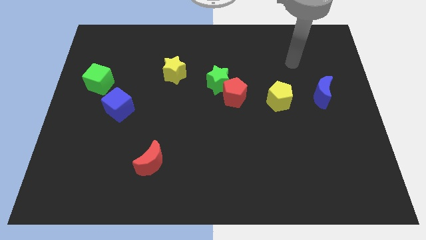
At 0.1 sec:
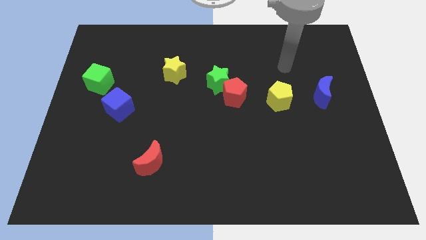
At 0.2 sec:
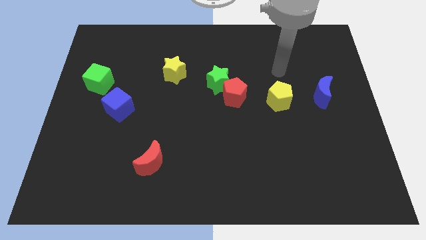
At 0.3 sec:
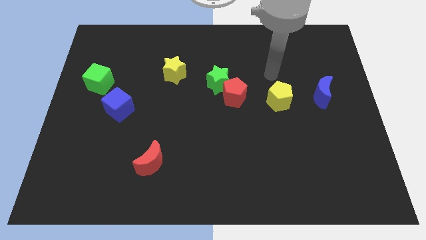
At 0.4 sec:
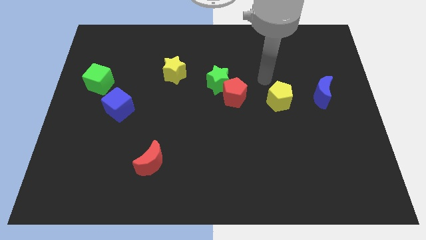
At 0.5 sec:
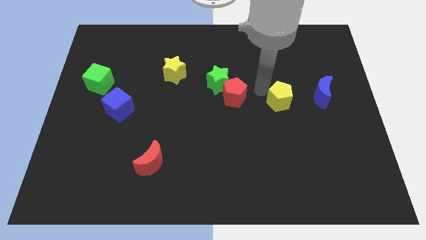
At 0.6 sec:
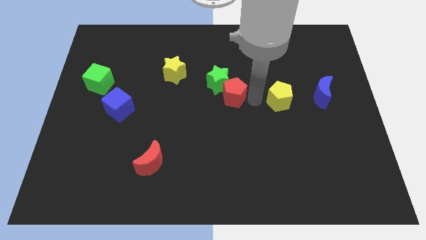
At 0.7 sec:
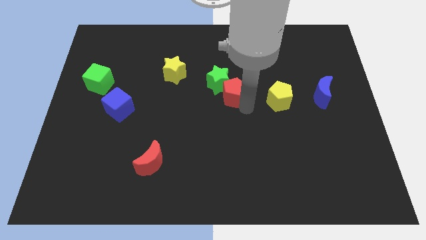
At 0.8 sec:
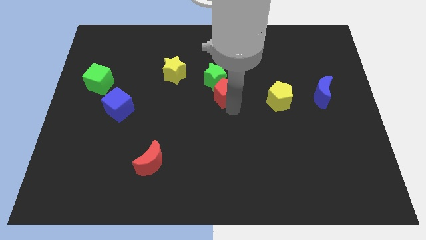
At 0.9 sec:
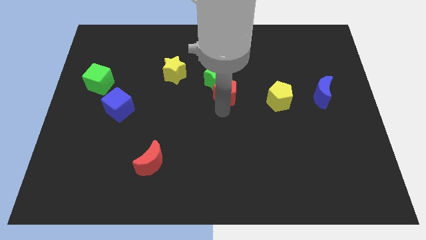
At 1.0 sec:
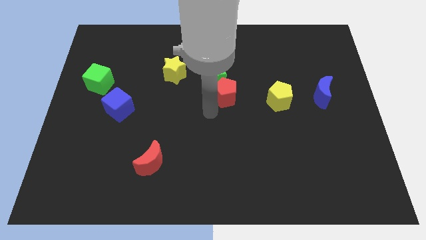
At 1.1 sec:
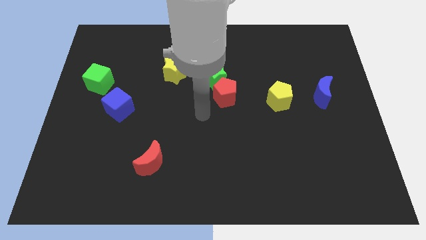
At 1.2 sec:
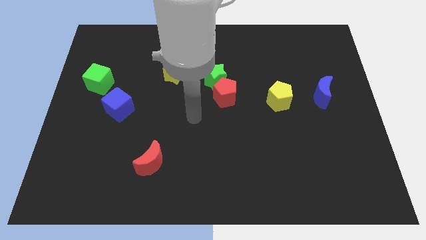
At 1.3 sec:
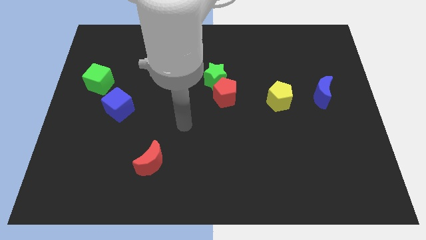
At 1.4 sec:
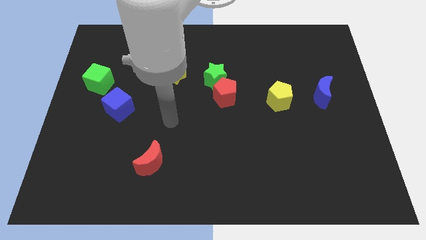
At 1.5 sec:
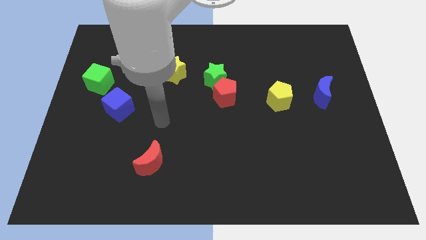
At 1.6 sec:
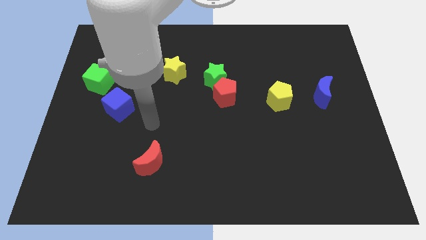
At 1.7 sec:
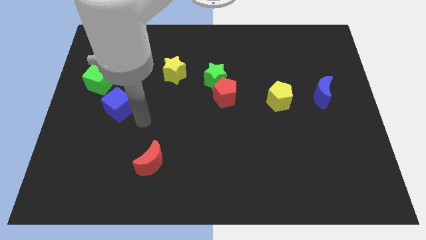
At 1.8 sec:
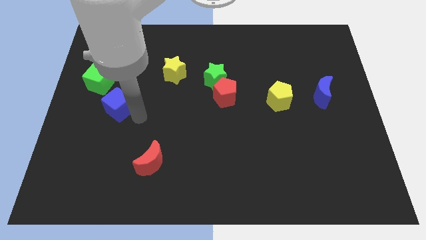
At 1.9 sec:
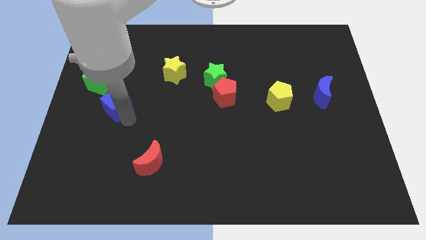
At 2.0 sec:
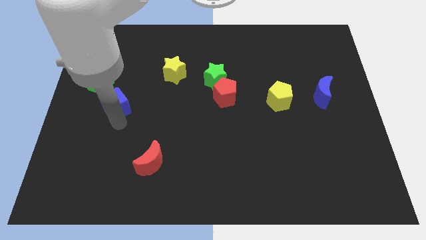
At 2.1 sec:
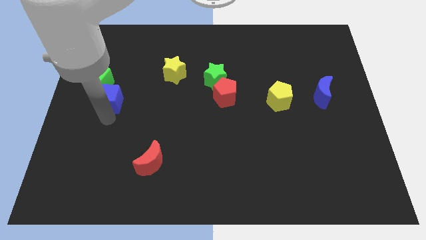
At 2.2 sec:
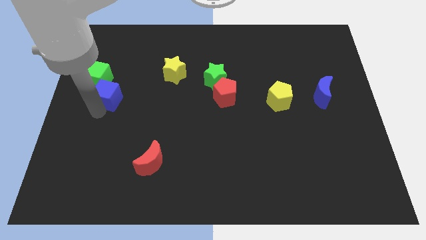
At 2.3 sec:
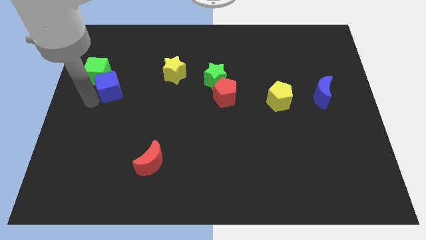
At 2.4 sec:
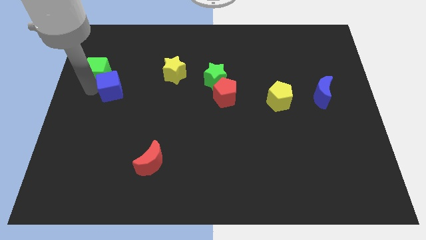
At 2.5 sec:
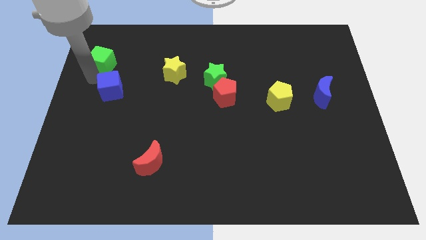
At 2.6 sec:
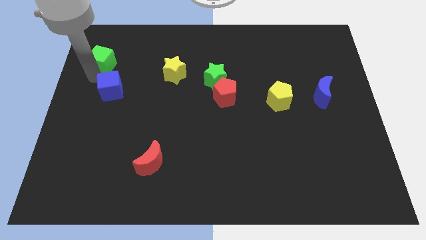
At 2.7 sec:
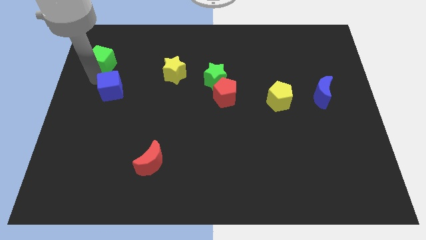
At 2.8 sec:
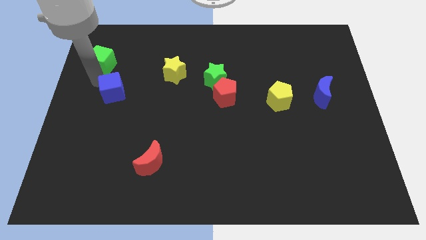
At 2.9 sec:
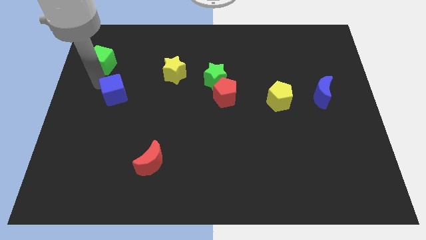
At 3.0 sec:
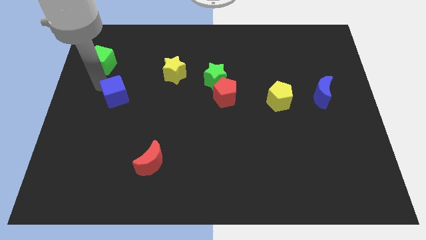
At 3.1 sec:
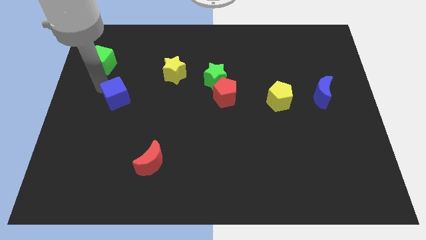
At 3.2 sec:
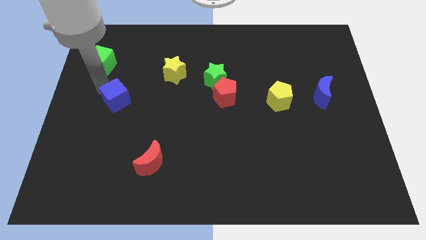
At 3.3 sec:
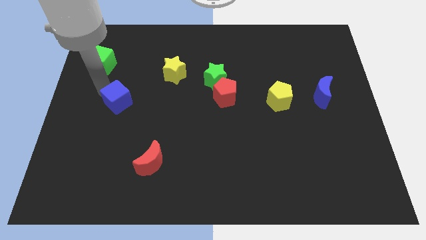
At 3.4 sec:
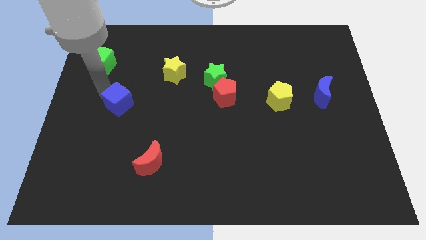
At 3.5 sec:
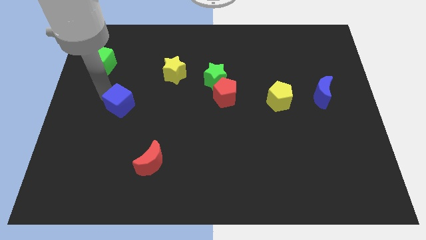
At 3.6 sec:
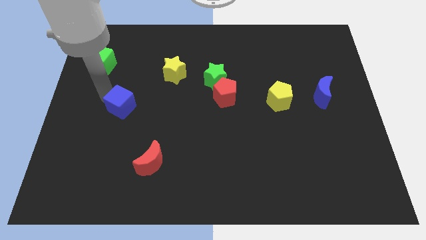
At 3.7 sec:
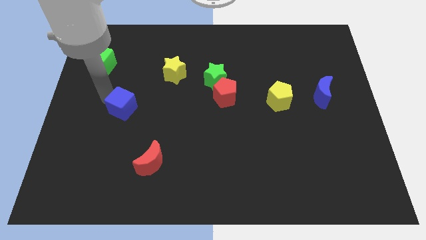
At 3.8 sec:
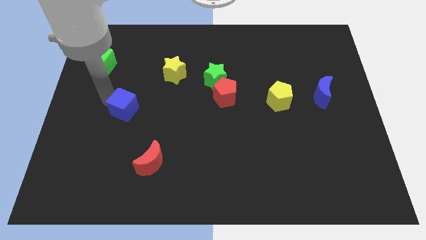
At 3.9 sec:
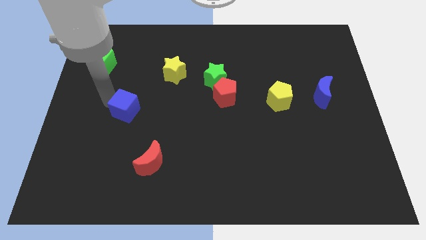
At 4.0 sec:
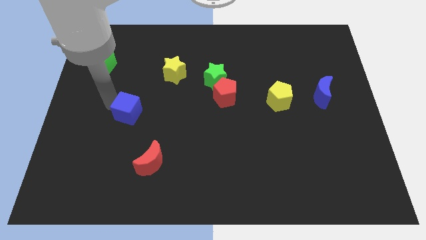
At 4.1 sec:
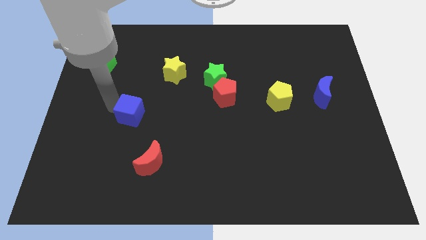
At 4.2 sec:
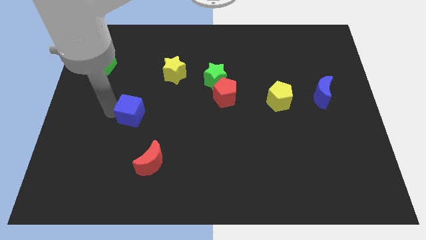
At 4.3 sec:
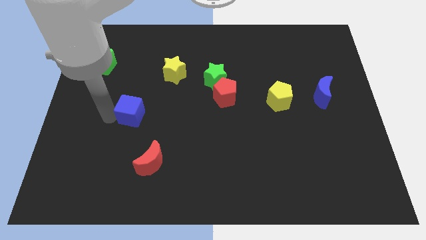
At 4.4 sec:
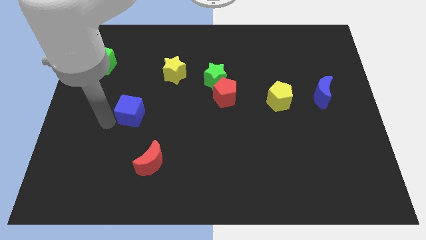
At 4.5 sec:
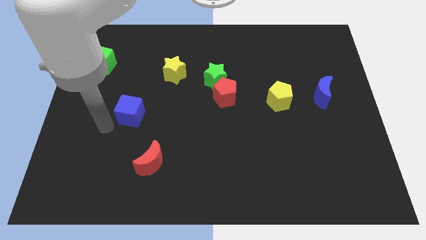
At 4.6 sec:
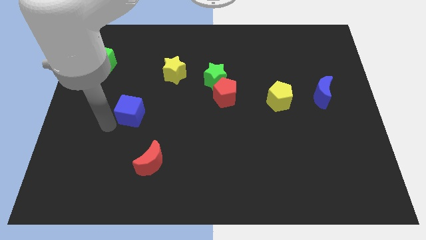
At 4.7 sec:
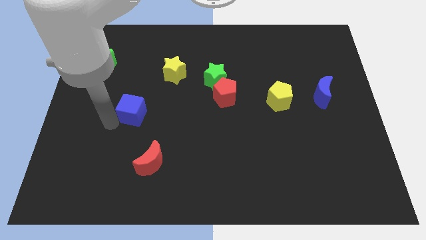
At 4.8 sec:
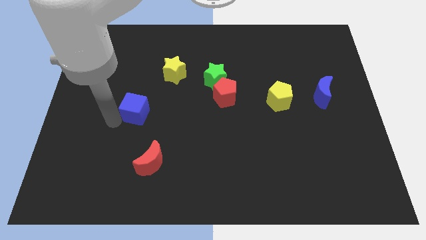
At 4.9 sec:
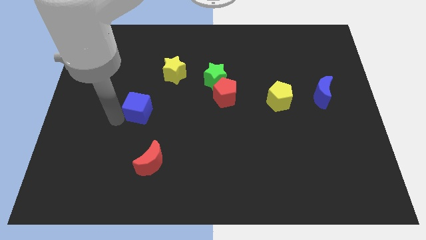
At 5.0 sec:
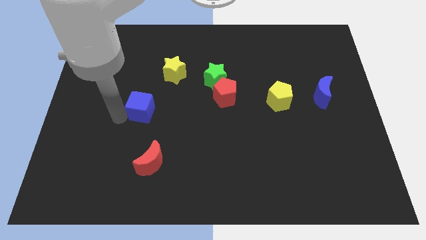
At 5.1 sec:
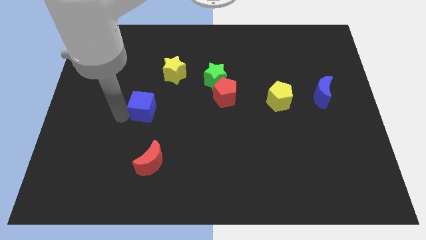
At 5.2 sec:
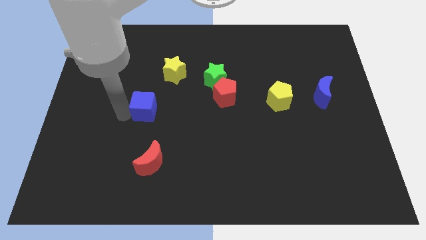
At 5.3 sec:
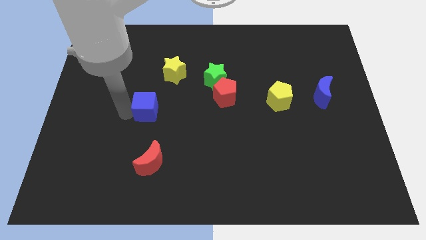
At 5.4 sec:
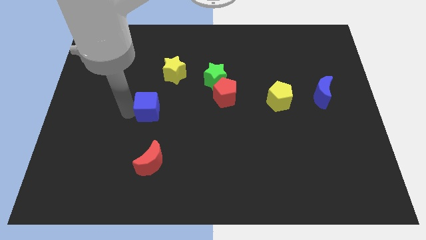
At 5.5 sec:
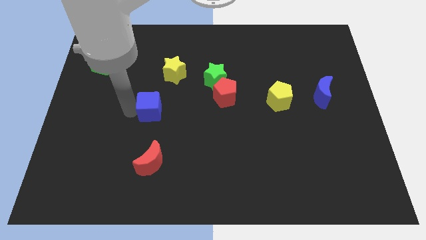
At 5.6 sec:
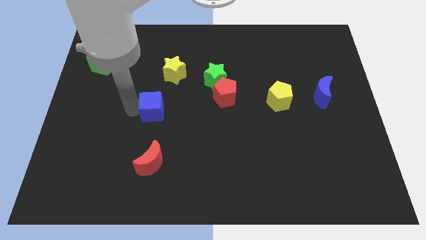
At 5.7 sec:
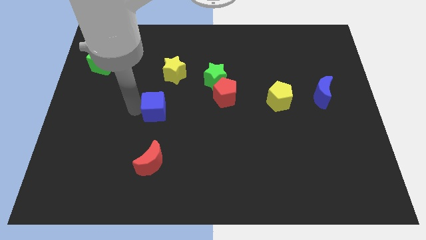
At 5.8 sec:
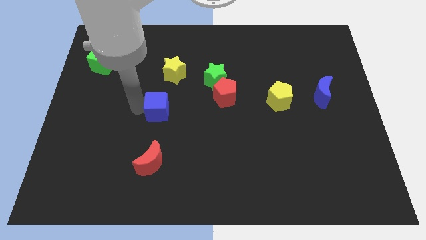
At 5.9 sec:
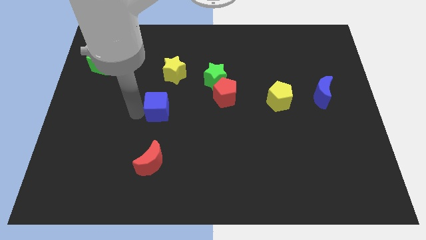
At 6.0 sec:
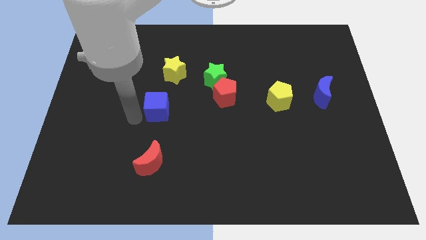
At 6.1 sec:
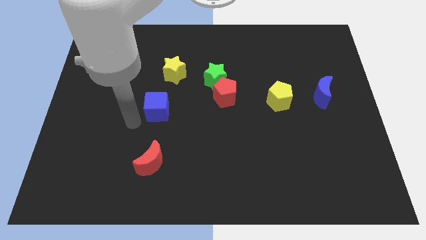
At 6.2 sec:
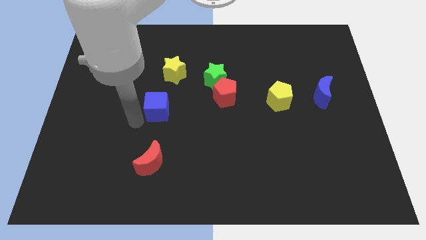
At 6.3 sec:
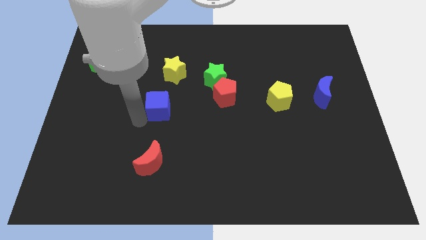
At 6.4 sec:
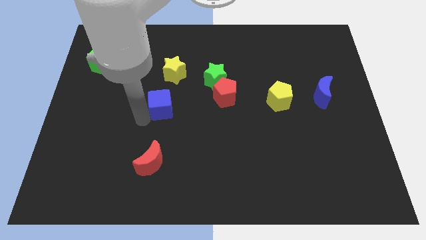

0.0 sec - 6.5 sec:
move the blue cube to the middle of the board

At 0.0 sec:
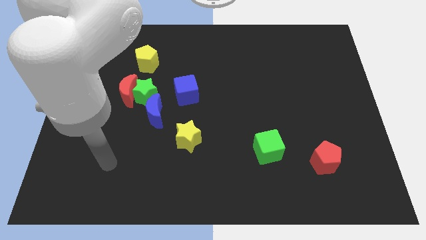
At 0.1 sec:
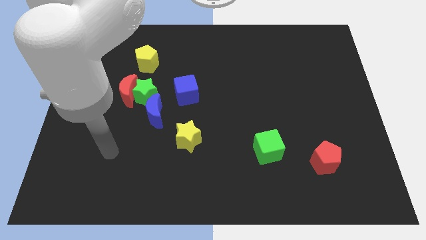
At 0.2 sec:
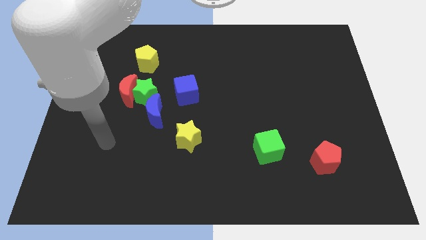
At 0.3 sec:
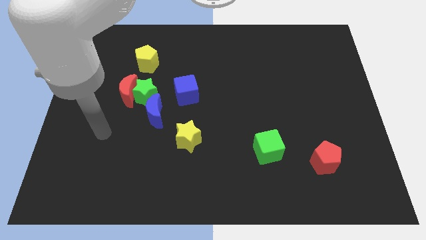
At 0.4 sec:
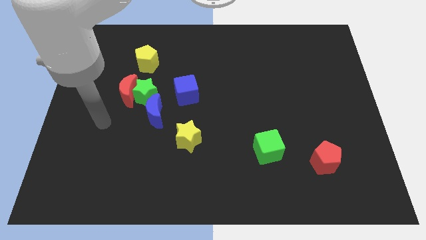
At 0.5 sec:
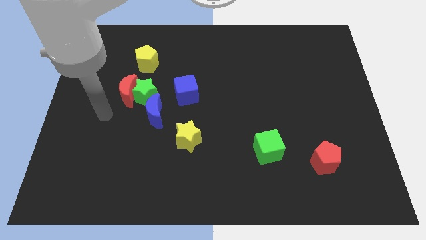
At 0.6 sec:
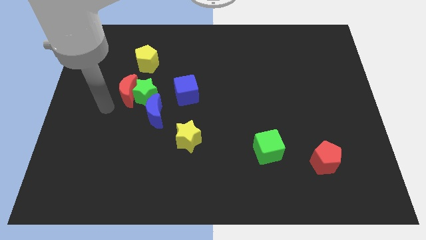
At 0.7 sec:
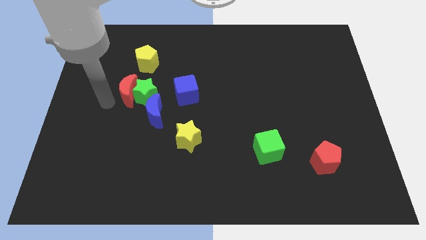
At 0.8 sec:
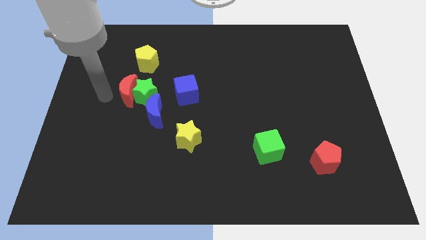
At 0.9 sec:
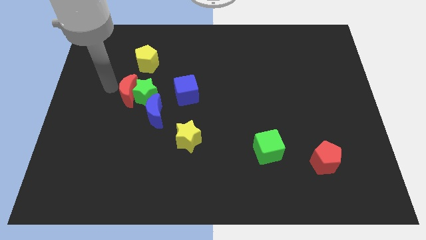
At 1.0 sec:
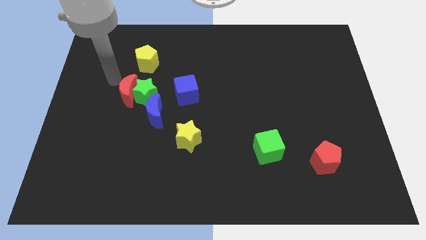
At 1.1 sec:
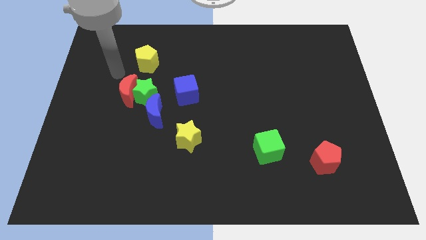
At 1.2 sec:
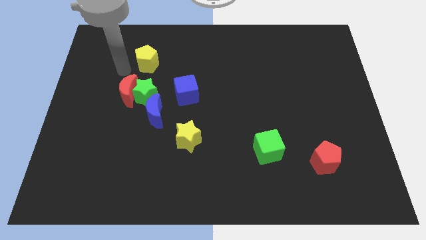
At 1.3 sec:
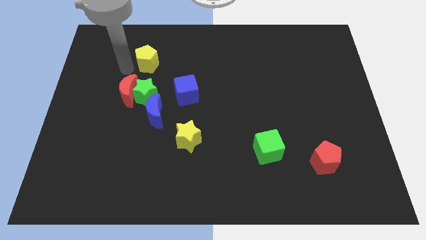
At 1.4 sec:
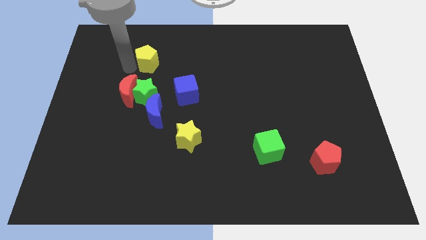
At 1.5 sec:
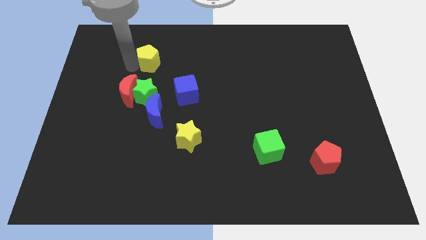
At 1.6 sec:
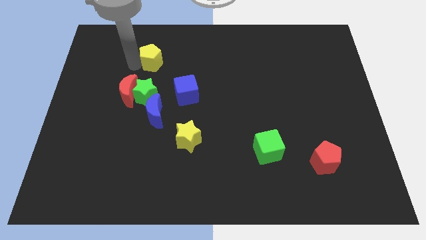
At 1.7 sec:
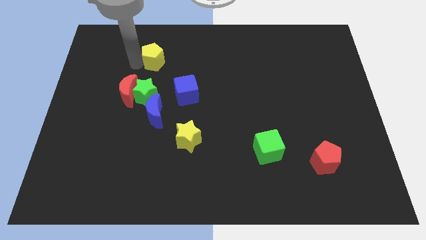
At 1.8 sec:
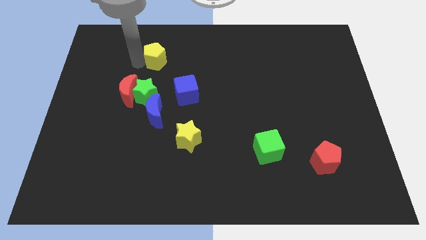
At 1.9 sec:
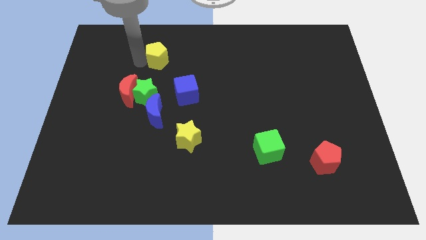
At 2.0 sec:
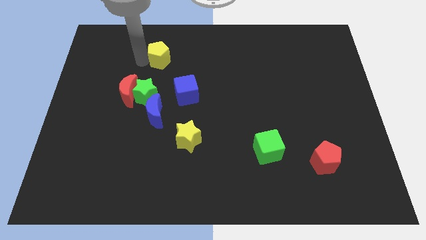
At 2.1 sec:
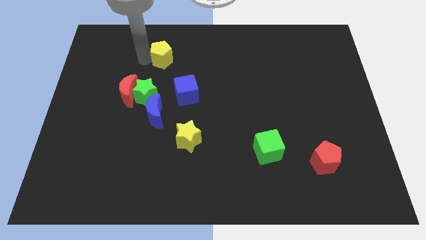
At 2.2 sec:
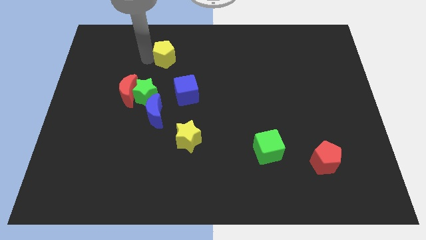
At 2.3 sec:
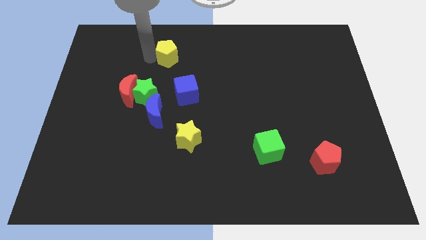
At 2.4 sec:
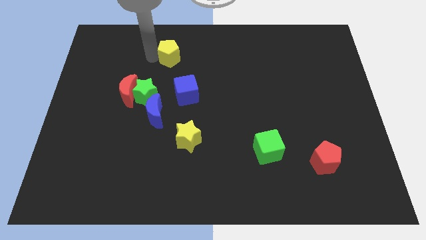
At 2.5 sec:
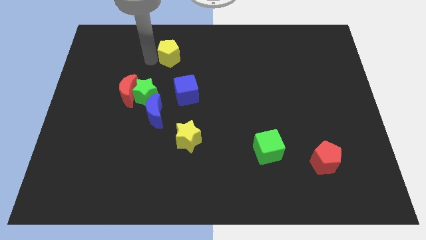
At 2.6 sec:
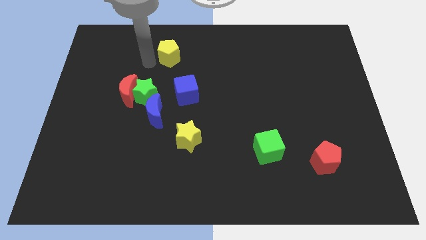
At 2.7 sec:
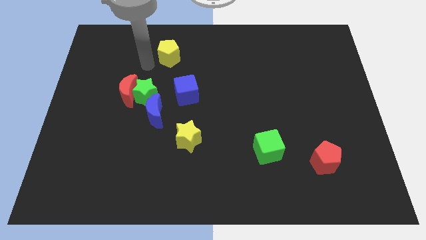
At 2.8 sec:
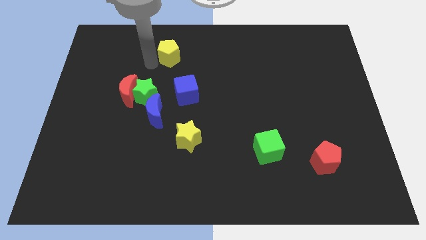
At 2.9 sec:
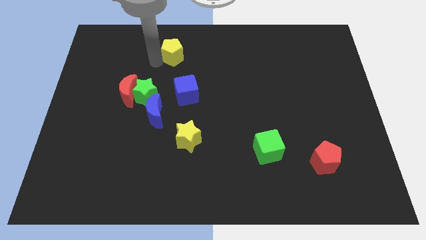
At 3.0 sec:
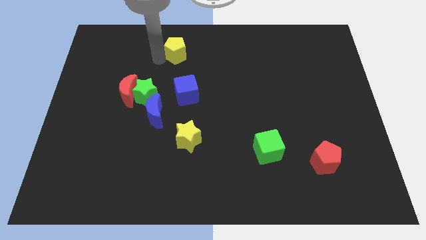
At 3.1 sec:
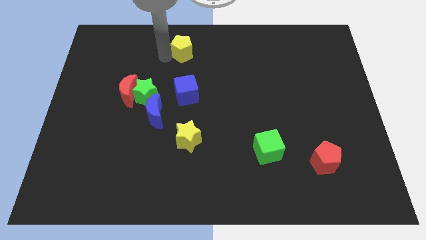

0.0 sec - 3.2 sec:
move the yellow pentagon to the top
